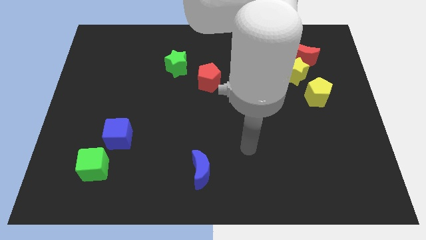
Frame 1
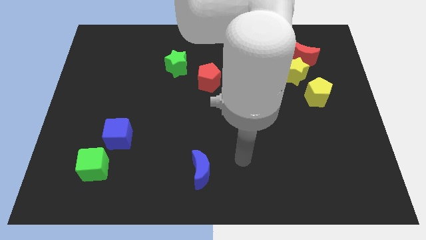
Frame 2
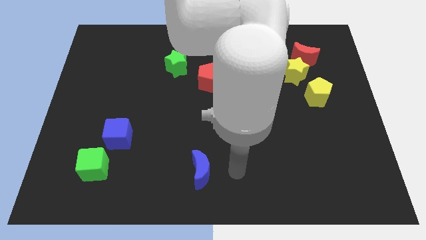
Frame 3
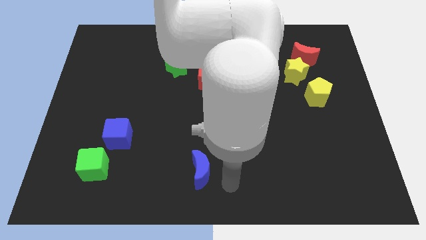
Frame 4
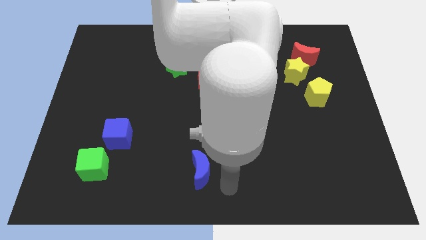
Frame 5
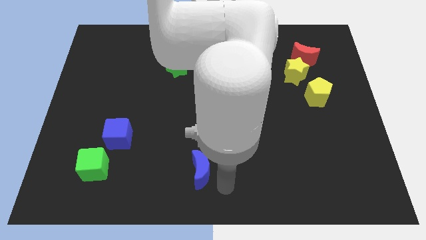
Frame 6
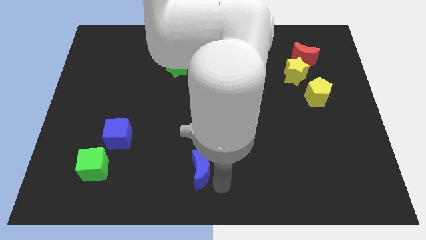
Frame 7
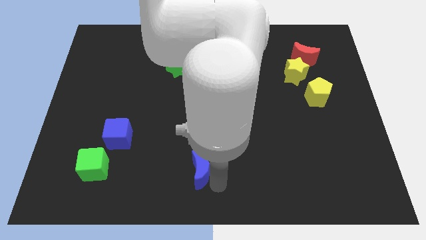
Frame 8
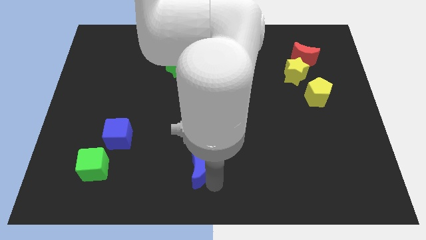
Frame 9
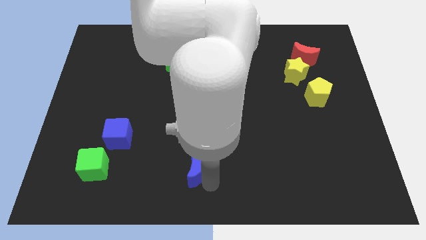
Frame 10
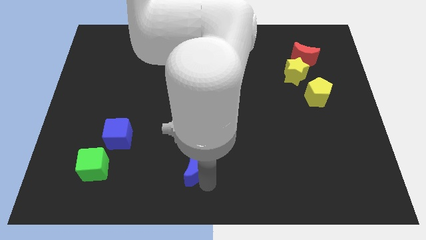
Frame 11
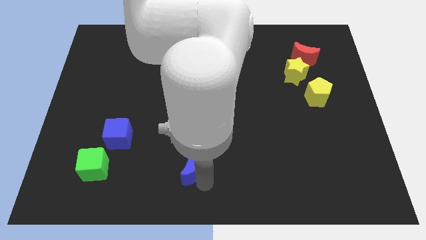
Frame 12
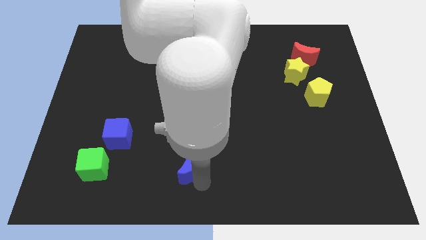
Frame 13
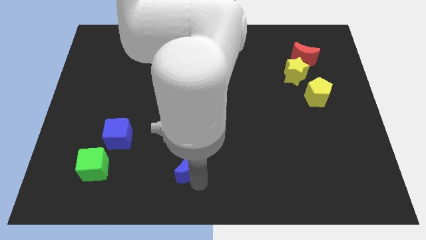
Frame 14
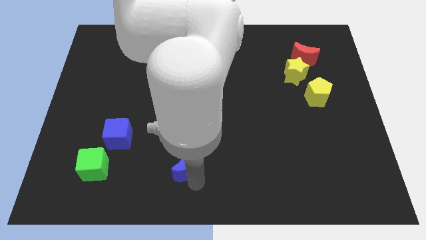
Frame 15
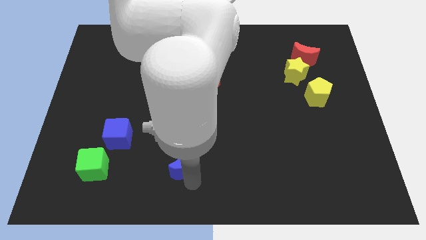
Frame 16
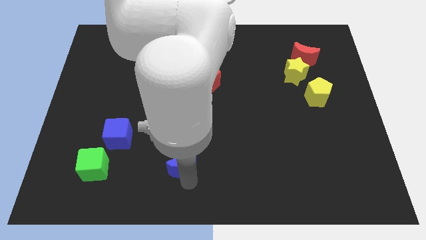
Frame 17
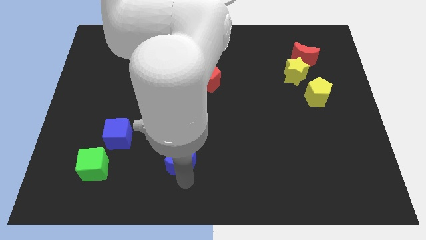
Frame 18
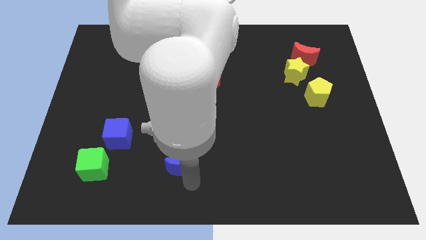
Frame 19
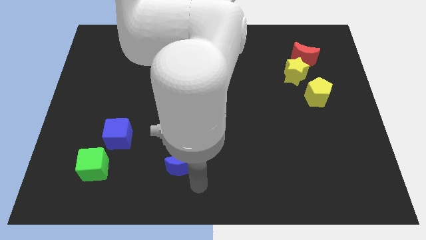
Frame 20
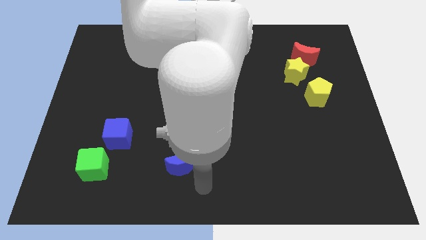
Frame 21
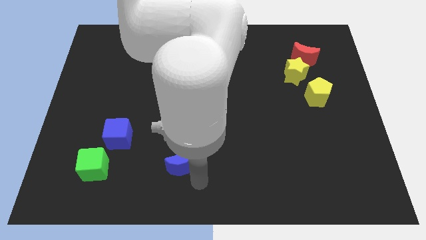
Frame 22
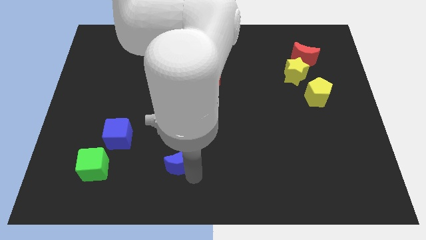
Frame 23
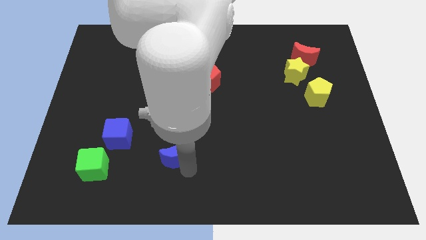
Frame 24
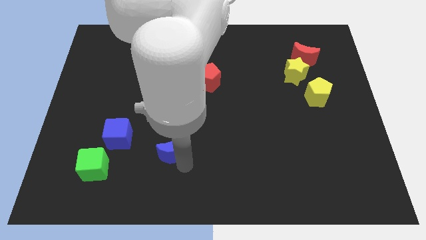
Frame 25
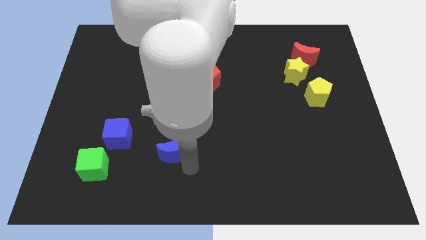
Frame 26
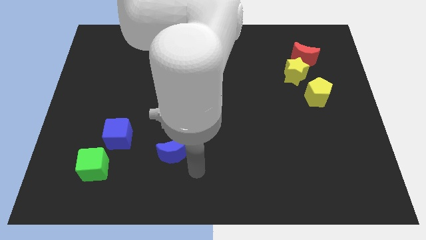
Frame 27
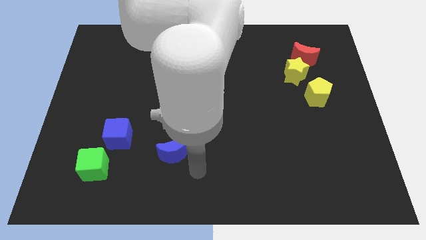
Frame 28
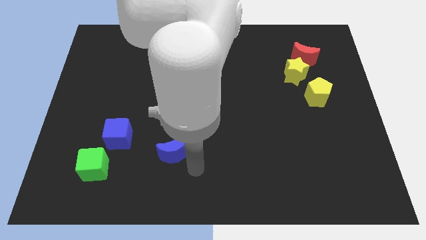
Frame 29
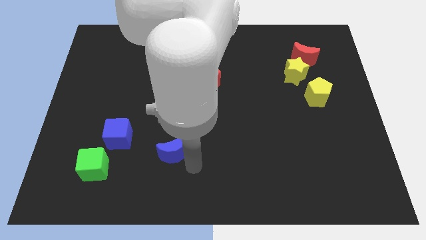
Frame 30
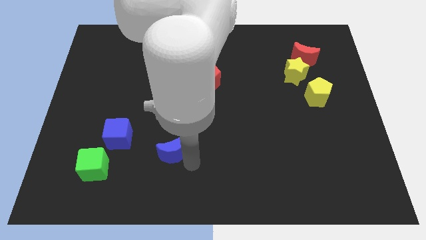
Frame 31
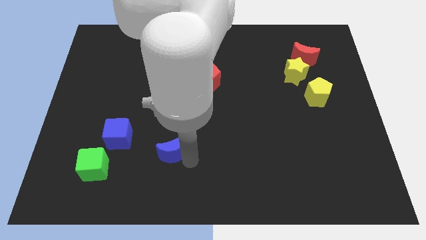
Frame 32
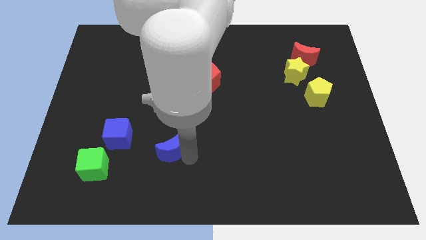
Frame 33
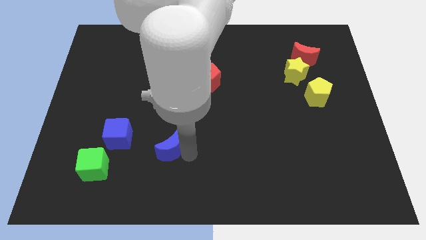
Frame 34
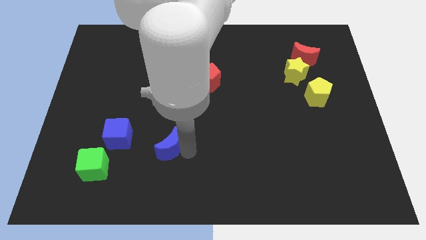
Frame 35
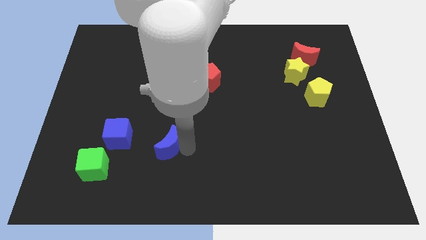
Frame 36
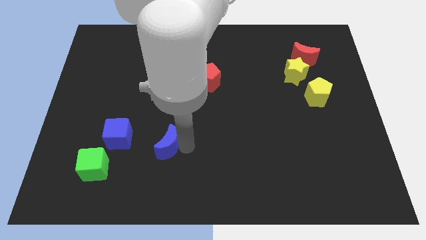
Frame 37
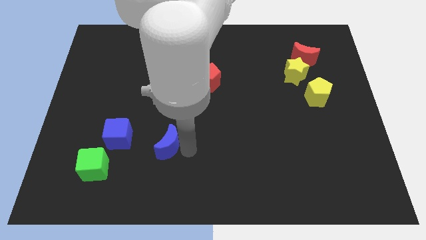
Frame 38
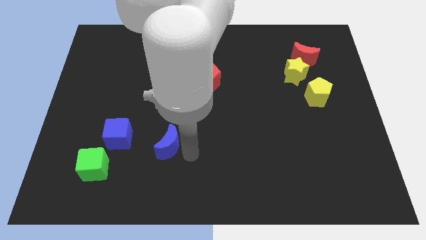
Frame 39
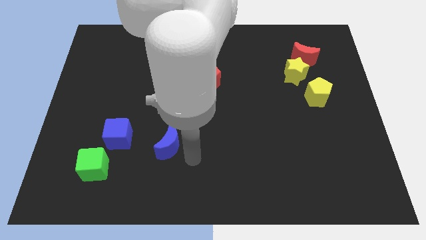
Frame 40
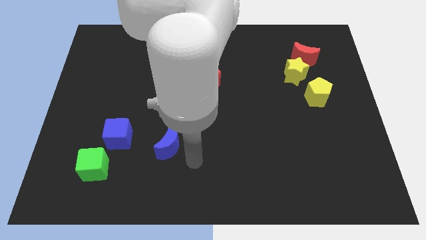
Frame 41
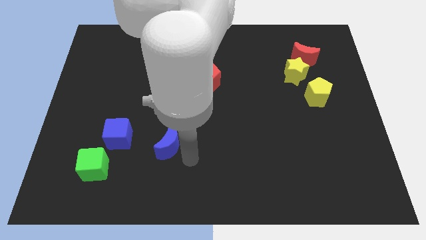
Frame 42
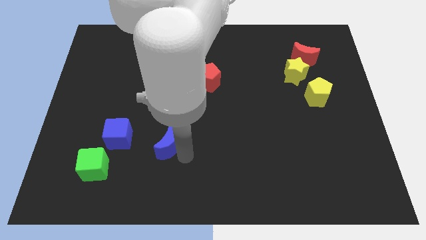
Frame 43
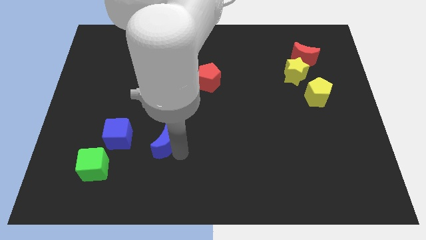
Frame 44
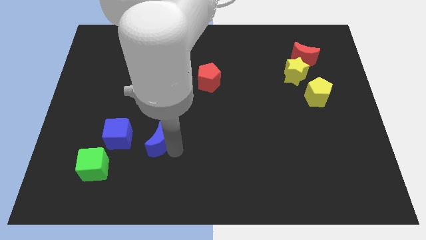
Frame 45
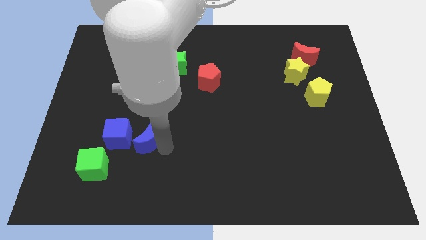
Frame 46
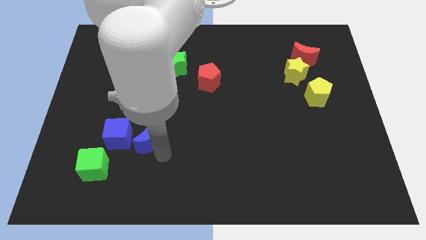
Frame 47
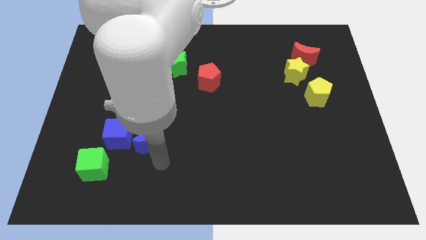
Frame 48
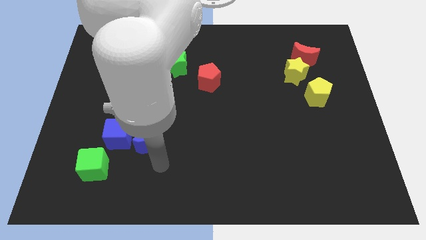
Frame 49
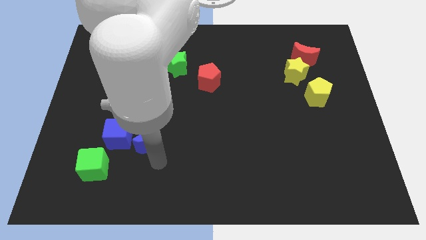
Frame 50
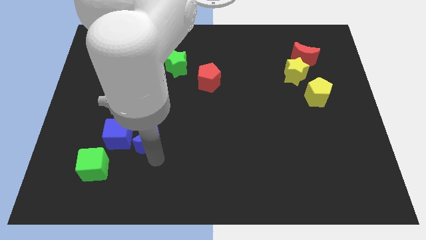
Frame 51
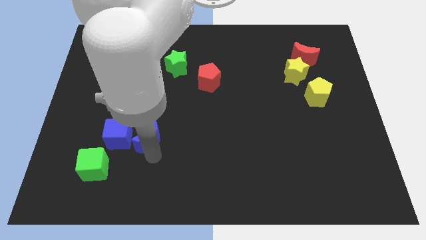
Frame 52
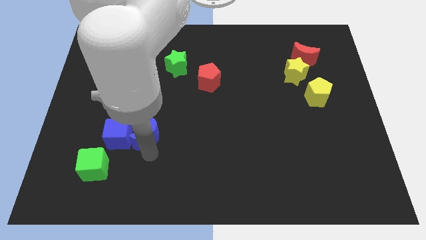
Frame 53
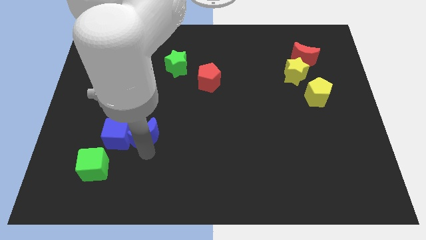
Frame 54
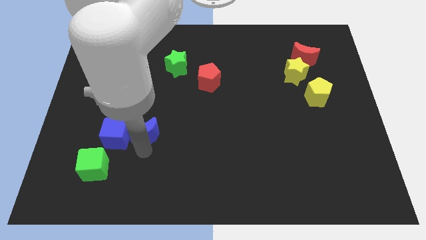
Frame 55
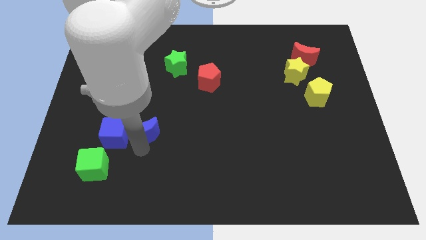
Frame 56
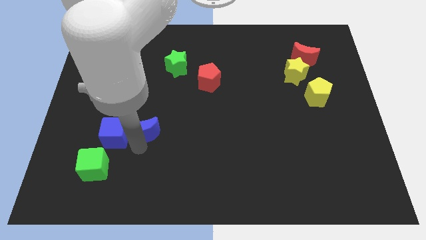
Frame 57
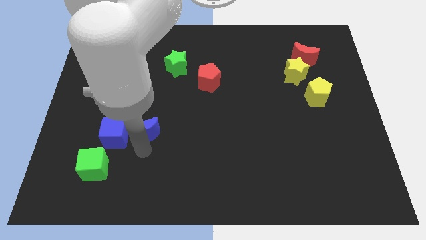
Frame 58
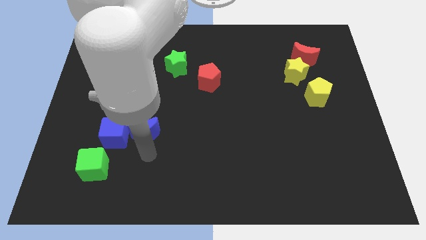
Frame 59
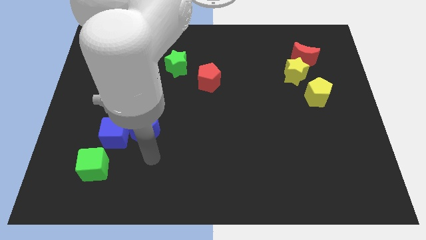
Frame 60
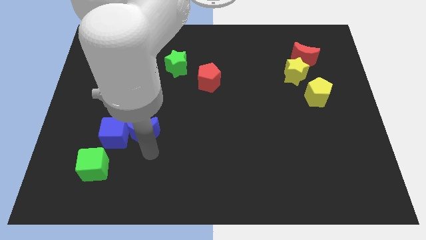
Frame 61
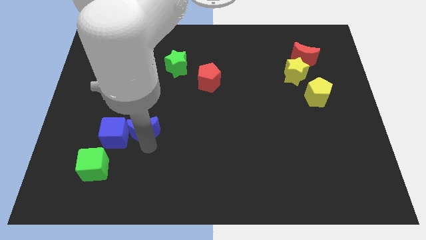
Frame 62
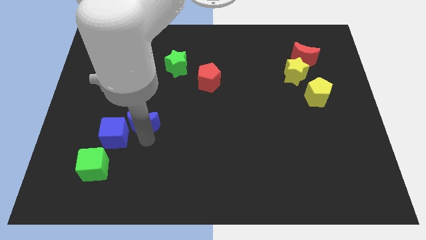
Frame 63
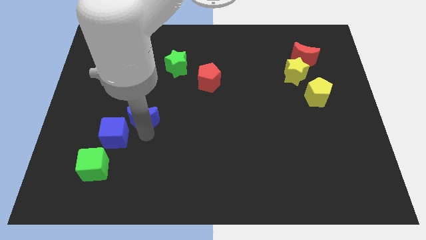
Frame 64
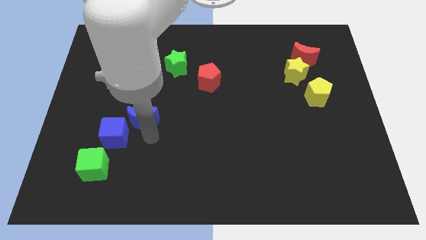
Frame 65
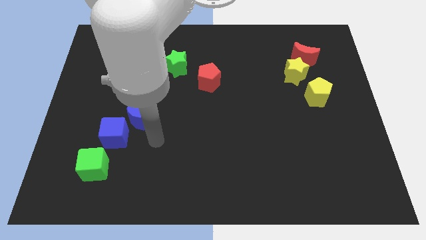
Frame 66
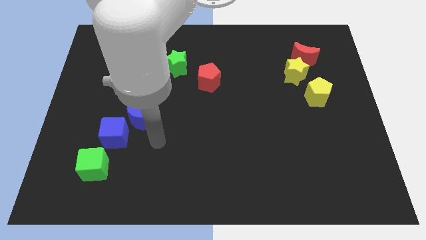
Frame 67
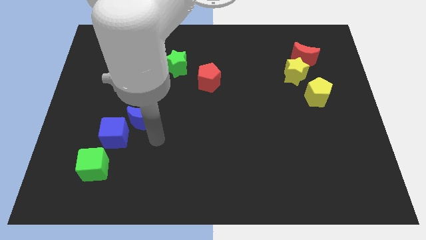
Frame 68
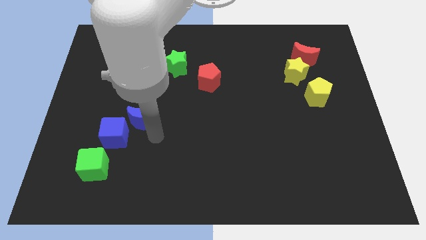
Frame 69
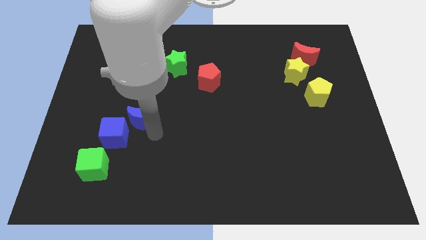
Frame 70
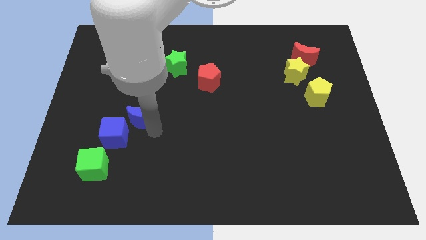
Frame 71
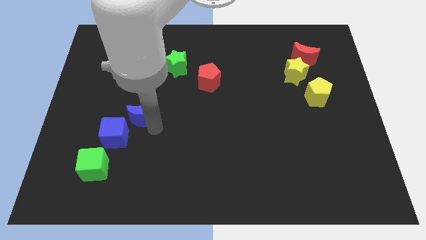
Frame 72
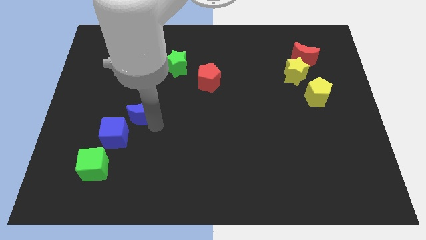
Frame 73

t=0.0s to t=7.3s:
push the blue moon upwards and then left

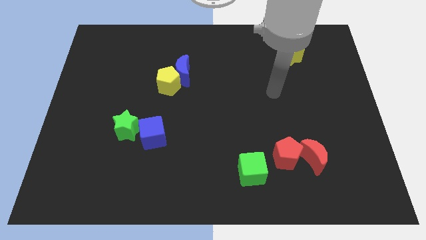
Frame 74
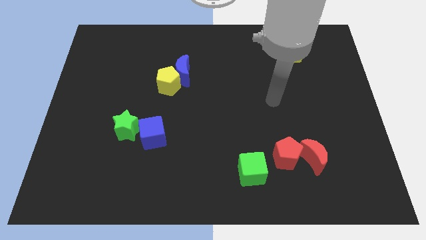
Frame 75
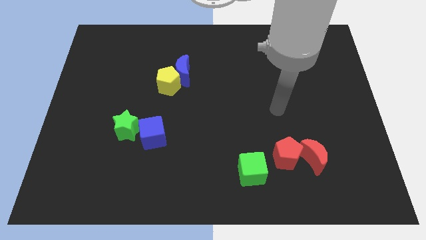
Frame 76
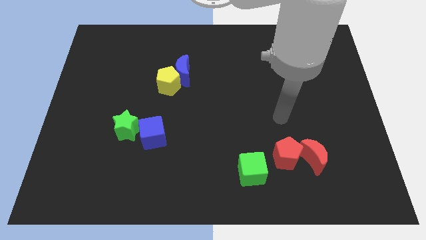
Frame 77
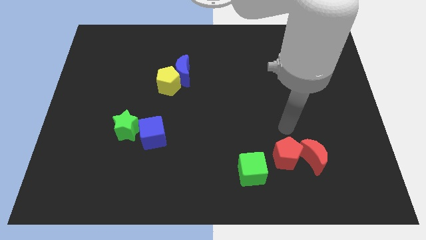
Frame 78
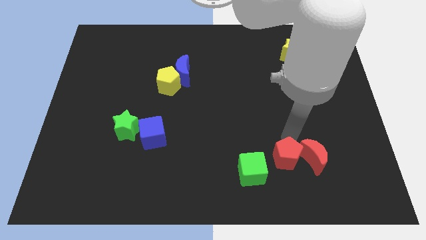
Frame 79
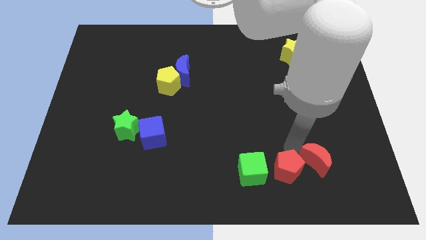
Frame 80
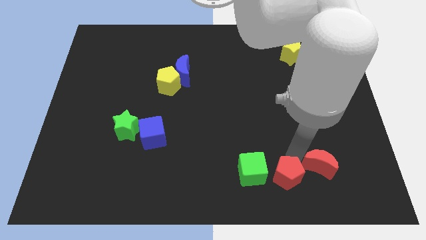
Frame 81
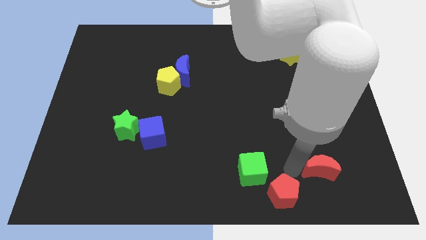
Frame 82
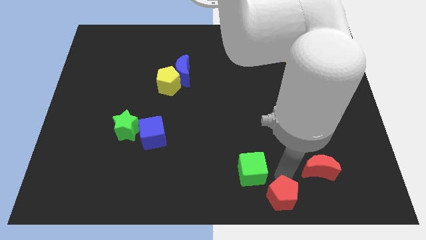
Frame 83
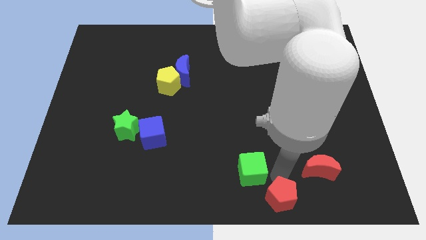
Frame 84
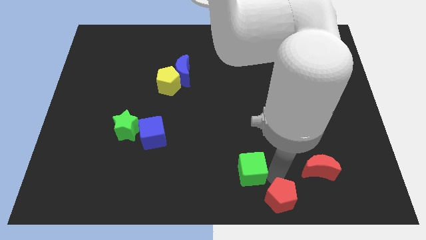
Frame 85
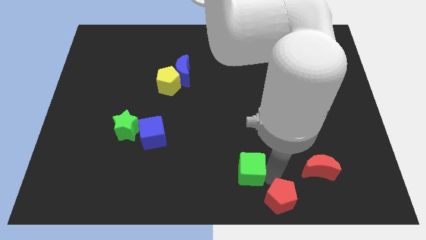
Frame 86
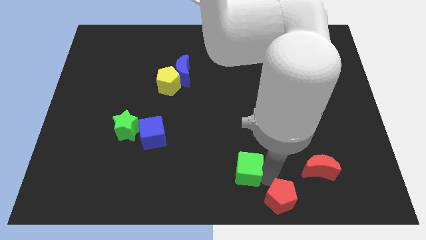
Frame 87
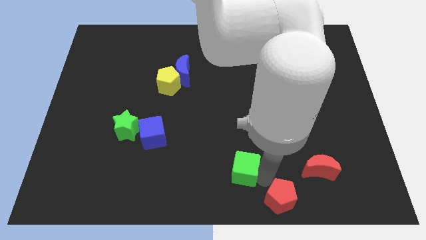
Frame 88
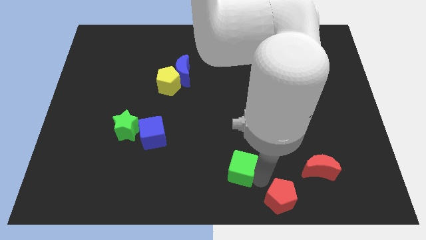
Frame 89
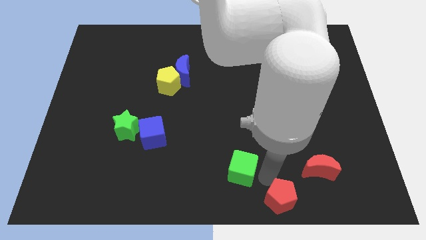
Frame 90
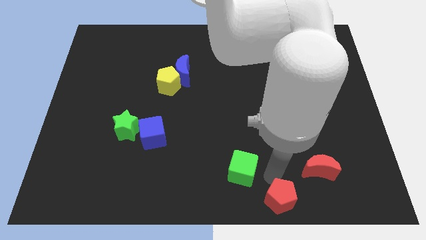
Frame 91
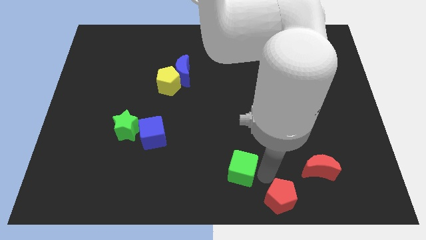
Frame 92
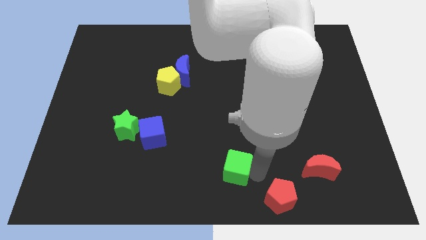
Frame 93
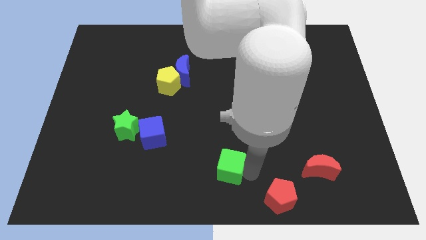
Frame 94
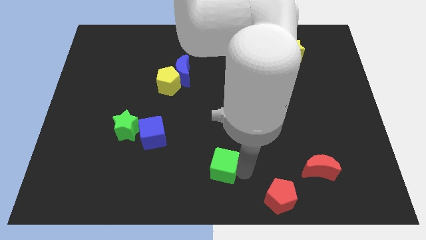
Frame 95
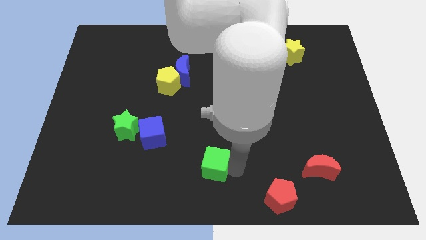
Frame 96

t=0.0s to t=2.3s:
slightly push the green cube left
